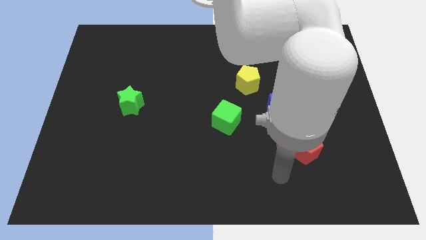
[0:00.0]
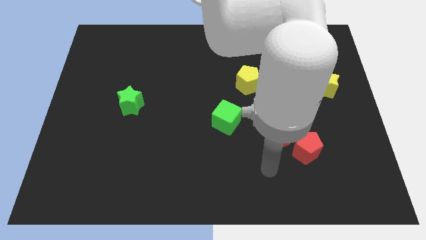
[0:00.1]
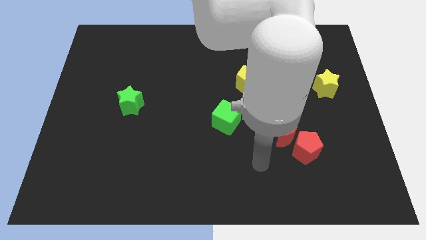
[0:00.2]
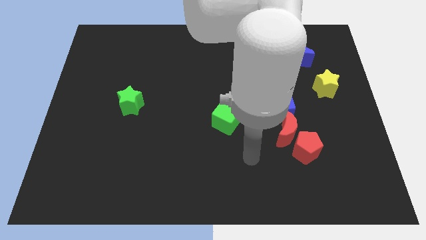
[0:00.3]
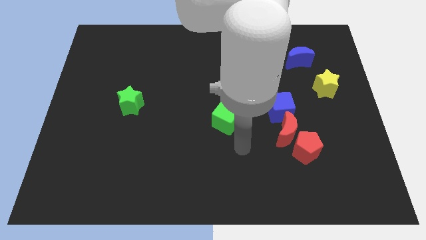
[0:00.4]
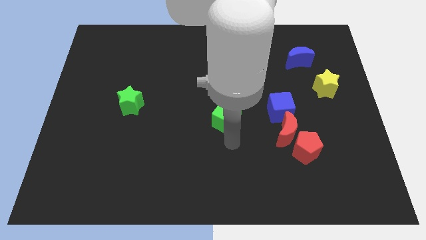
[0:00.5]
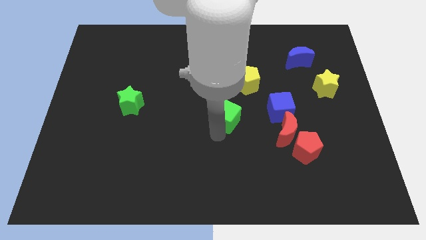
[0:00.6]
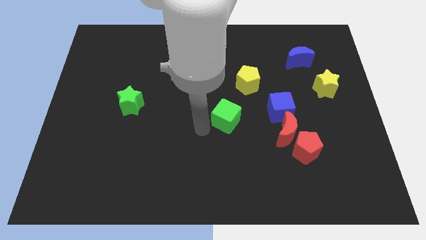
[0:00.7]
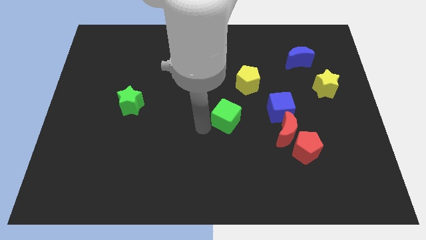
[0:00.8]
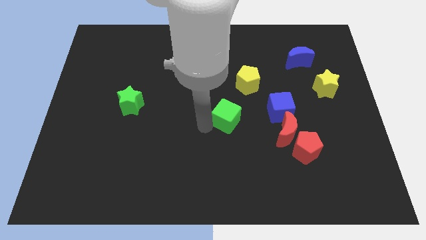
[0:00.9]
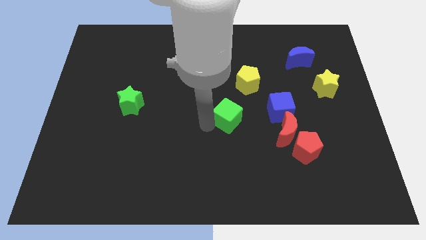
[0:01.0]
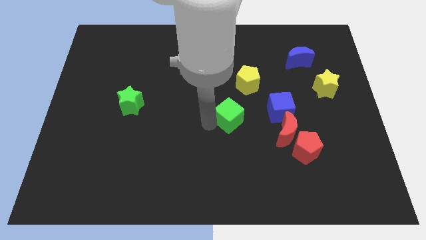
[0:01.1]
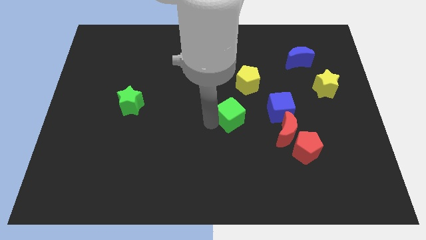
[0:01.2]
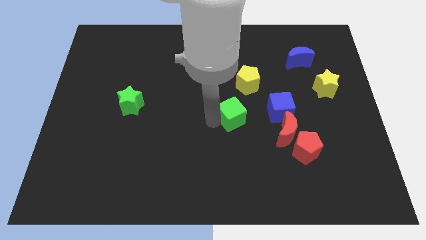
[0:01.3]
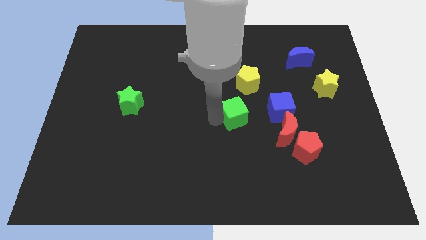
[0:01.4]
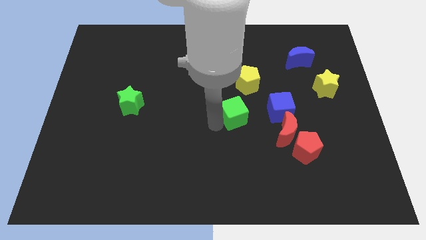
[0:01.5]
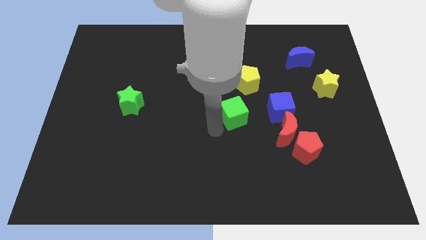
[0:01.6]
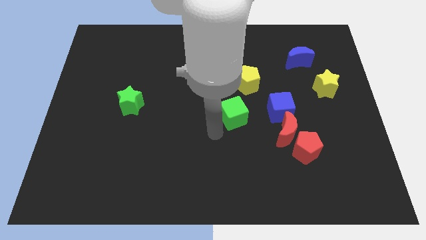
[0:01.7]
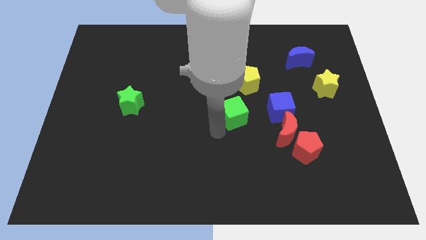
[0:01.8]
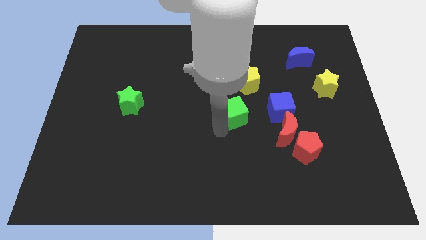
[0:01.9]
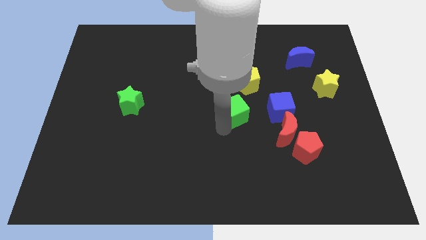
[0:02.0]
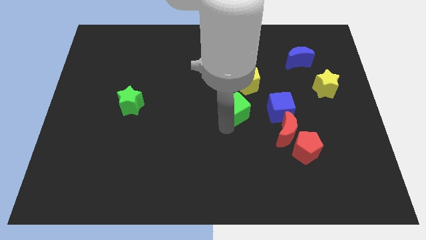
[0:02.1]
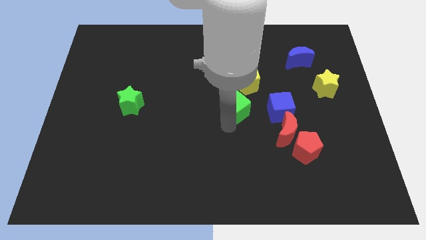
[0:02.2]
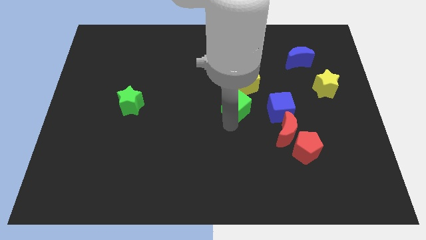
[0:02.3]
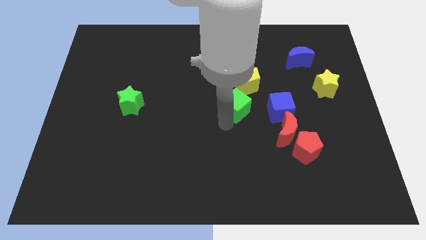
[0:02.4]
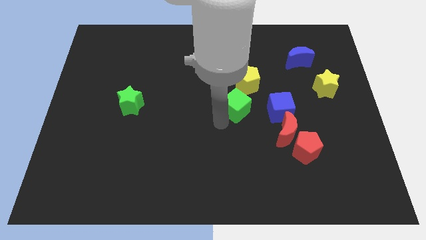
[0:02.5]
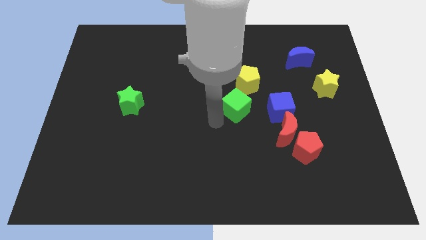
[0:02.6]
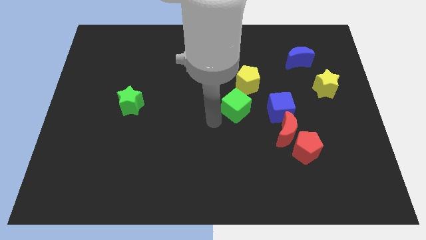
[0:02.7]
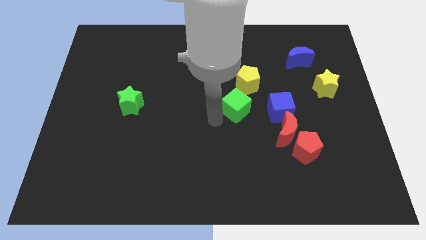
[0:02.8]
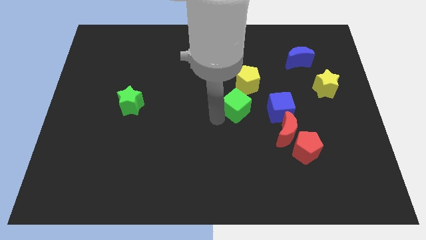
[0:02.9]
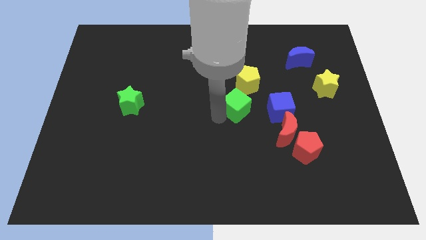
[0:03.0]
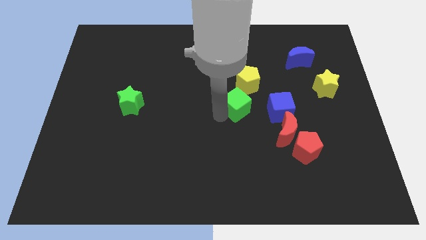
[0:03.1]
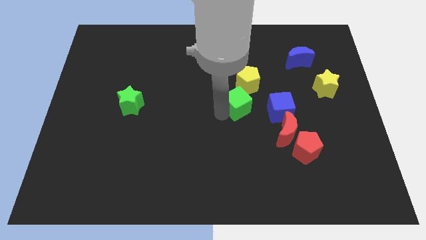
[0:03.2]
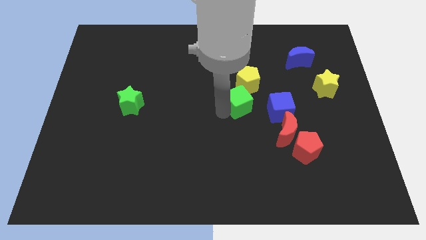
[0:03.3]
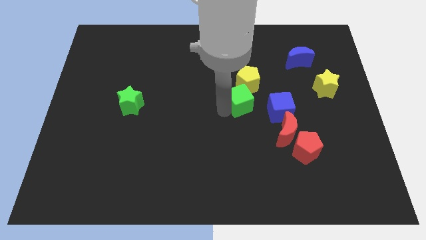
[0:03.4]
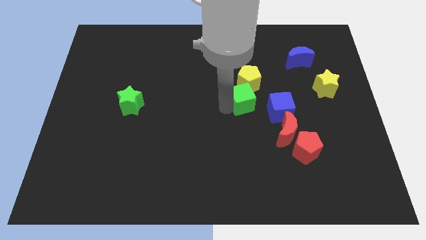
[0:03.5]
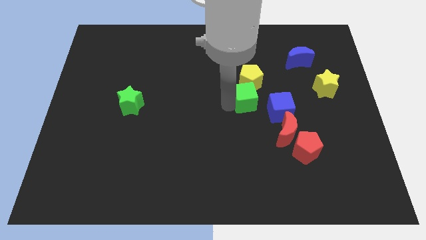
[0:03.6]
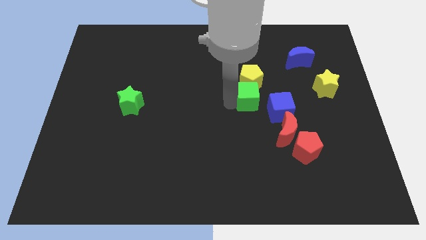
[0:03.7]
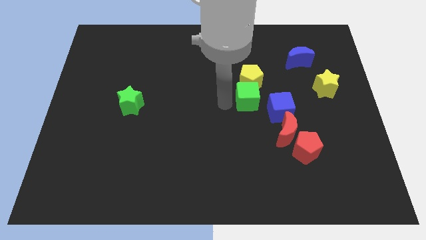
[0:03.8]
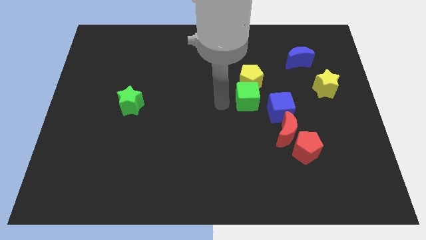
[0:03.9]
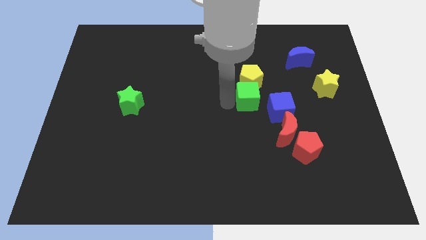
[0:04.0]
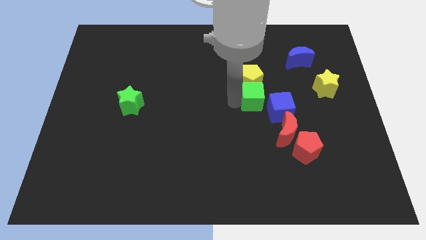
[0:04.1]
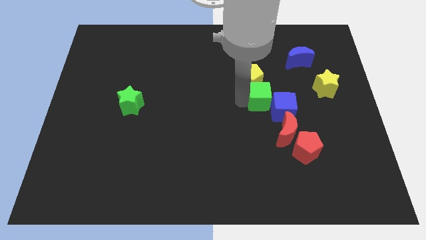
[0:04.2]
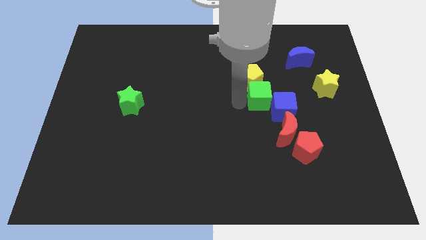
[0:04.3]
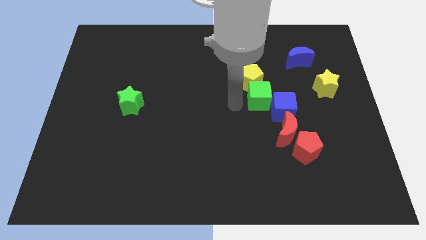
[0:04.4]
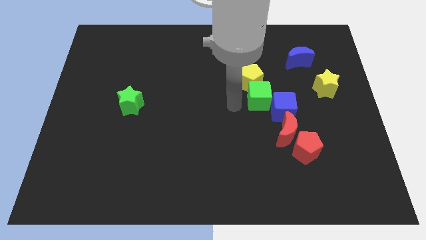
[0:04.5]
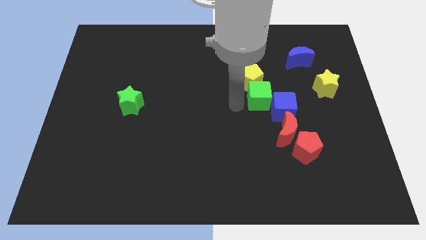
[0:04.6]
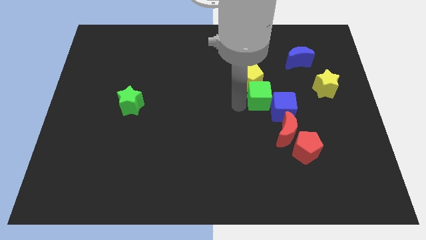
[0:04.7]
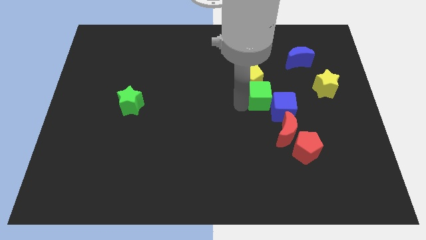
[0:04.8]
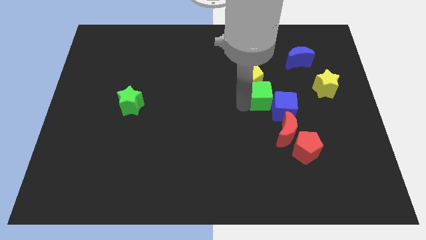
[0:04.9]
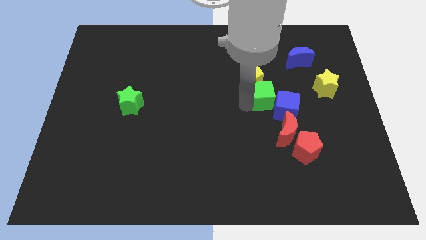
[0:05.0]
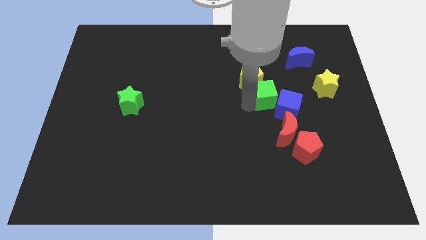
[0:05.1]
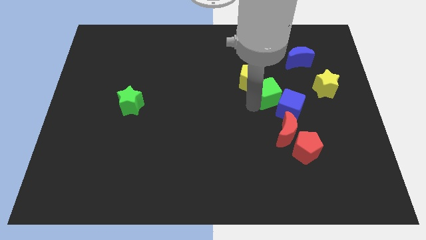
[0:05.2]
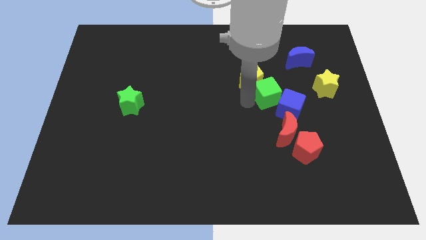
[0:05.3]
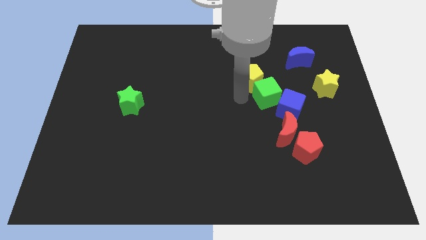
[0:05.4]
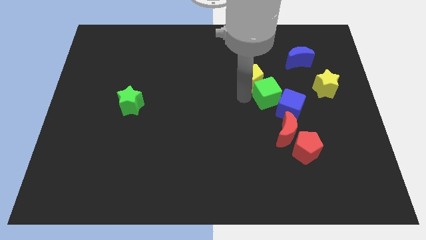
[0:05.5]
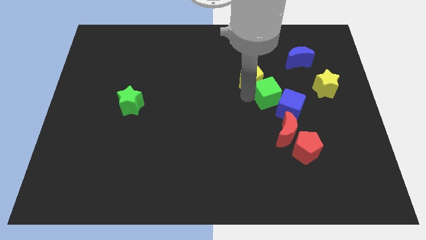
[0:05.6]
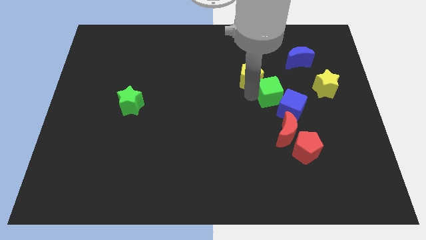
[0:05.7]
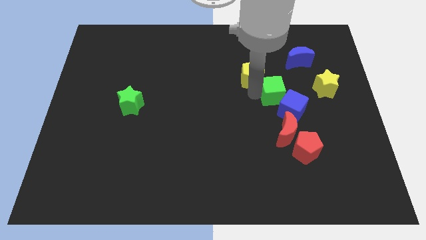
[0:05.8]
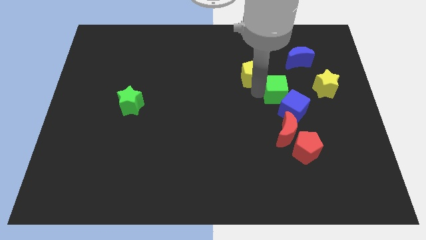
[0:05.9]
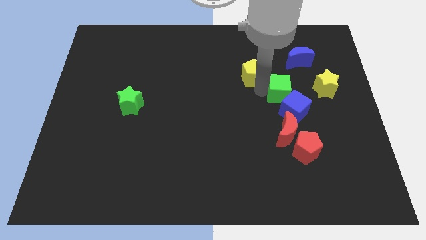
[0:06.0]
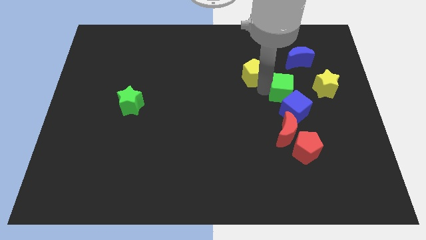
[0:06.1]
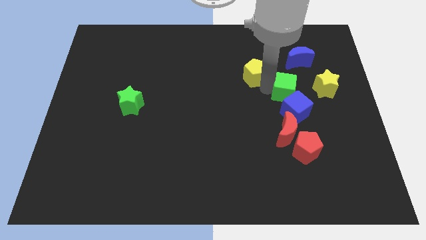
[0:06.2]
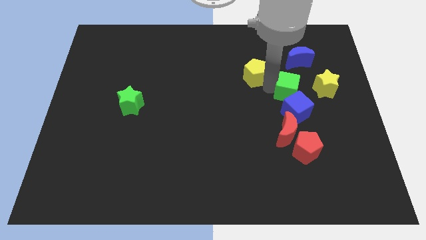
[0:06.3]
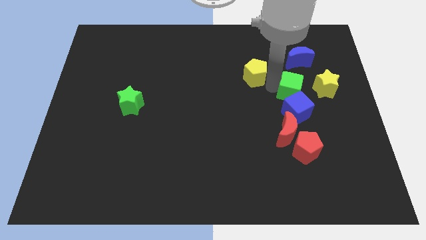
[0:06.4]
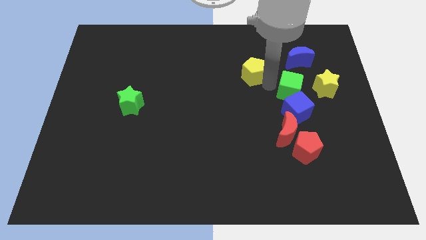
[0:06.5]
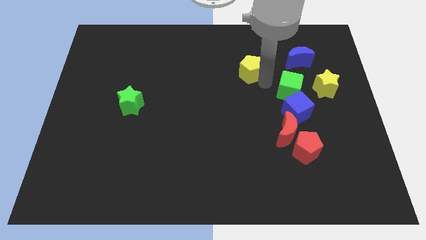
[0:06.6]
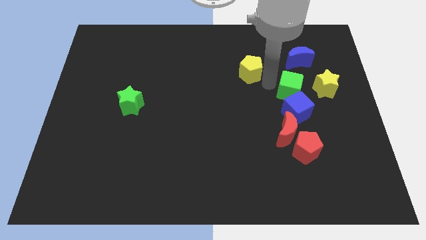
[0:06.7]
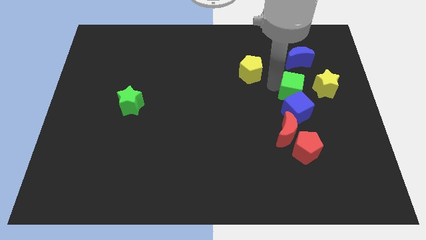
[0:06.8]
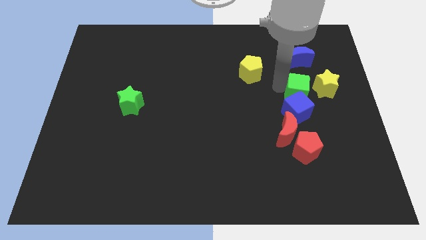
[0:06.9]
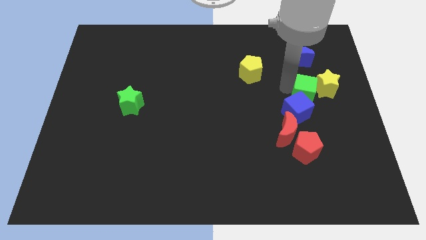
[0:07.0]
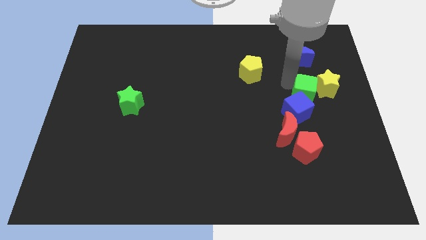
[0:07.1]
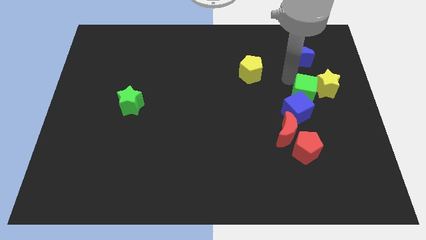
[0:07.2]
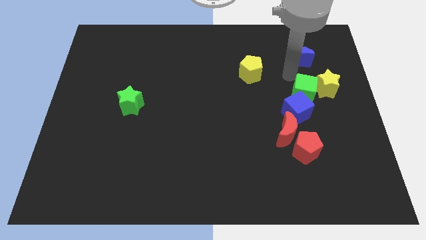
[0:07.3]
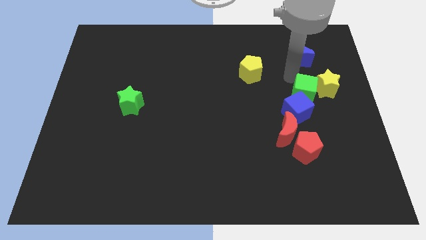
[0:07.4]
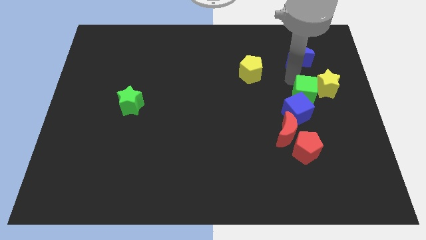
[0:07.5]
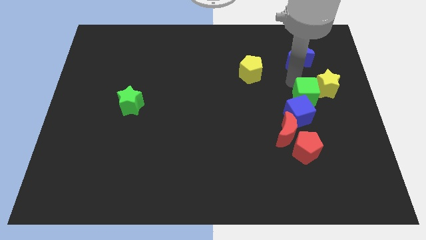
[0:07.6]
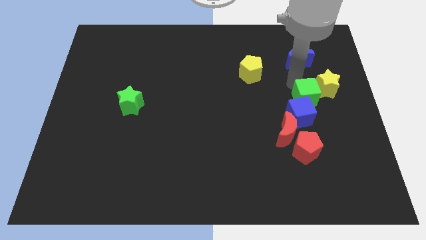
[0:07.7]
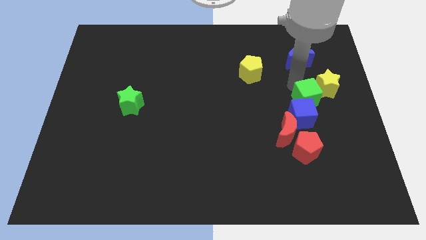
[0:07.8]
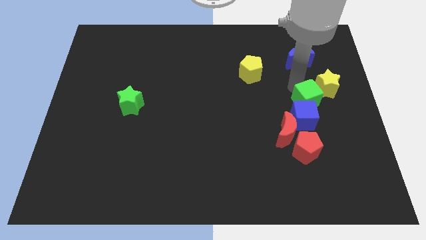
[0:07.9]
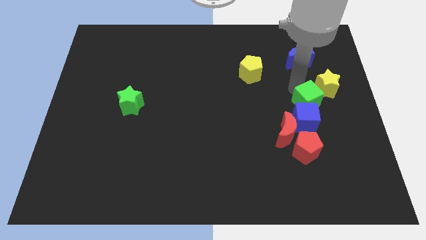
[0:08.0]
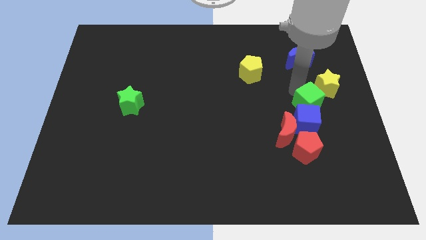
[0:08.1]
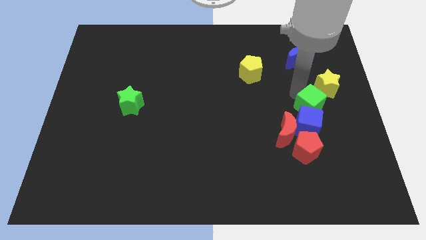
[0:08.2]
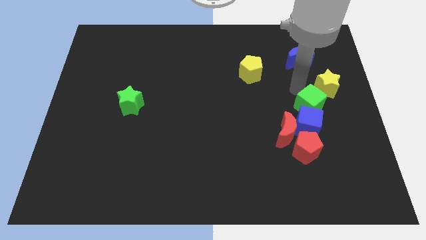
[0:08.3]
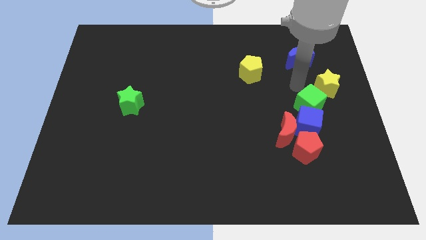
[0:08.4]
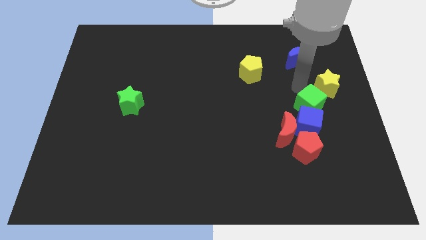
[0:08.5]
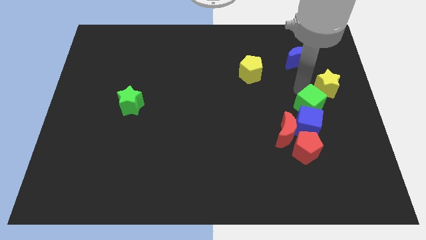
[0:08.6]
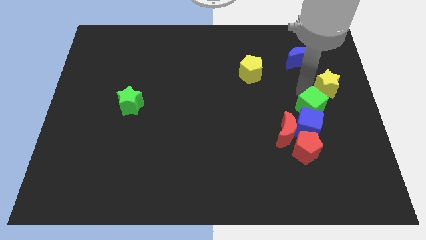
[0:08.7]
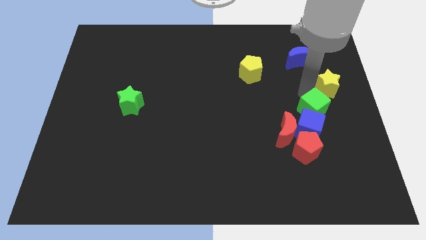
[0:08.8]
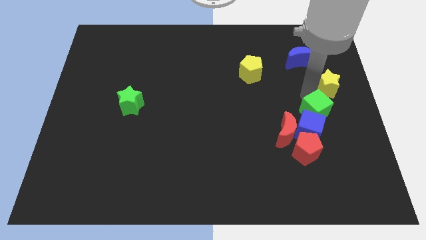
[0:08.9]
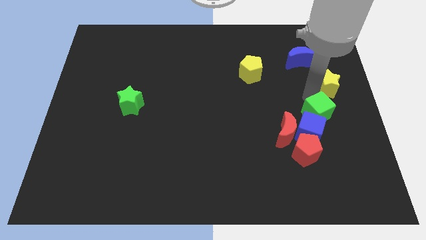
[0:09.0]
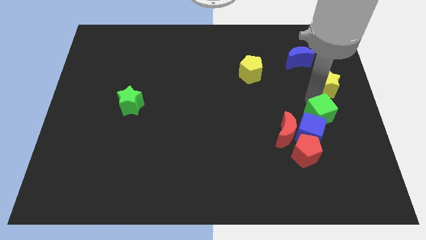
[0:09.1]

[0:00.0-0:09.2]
slide the green cube to the top right of the red pentagon
